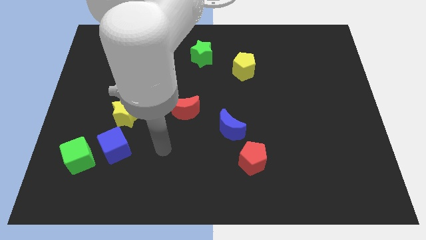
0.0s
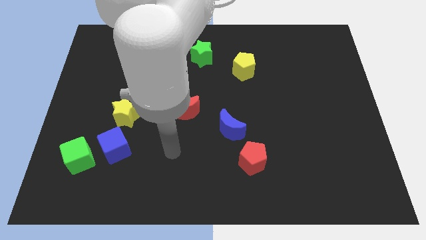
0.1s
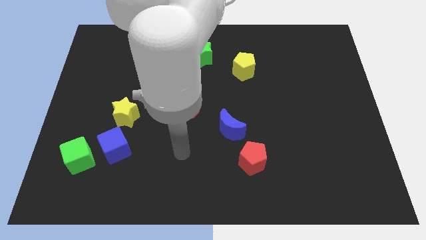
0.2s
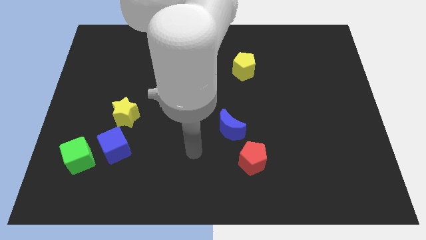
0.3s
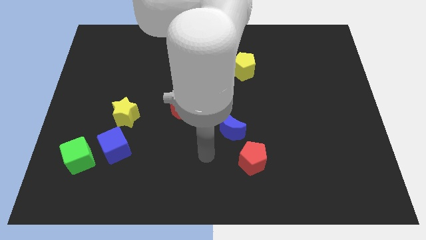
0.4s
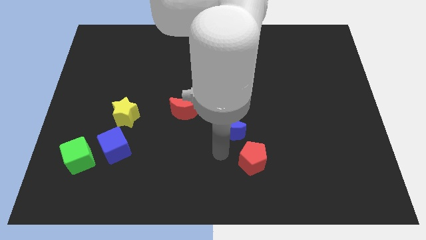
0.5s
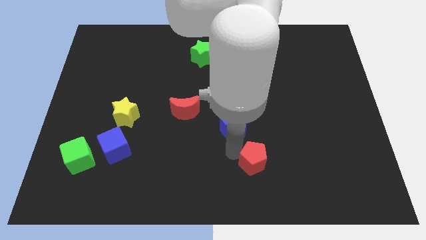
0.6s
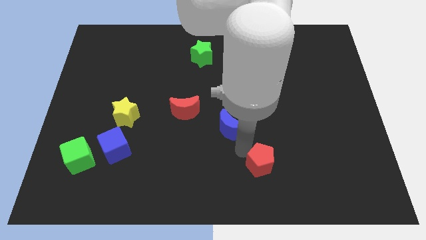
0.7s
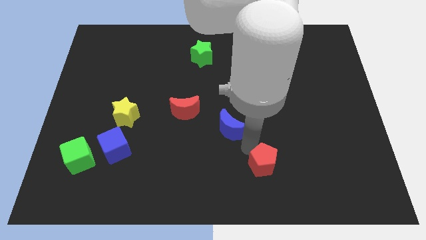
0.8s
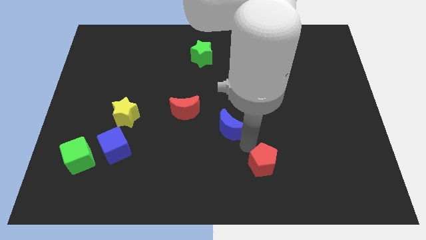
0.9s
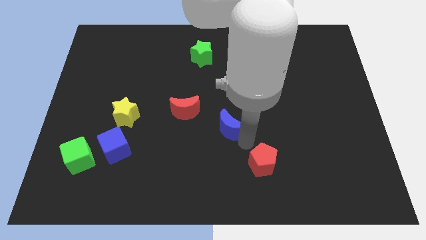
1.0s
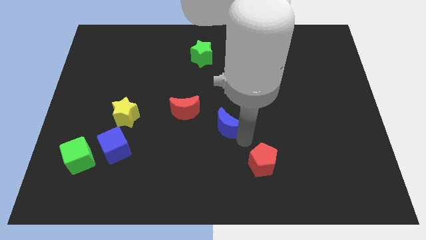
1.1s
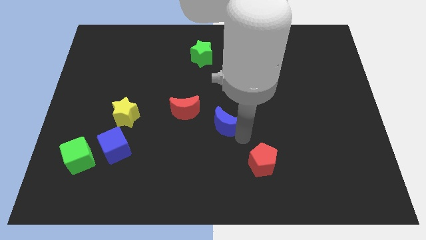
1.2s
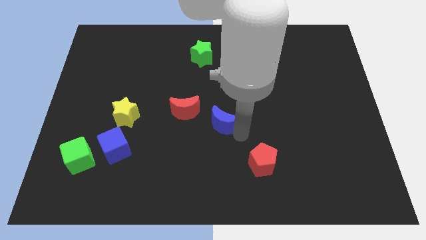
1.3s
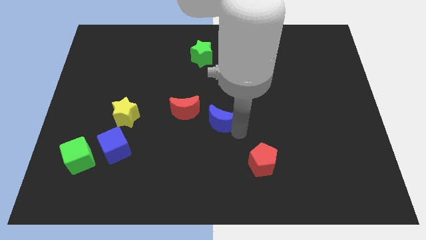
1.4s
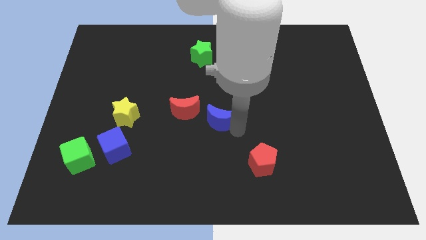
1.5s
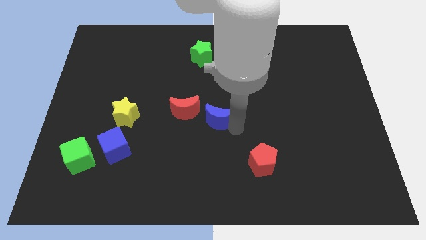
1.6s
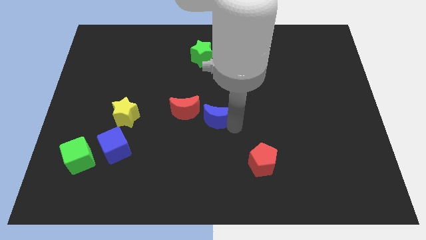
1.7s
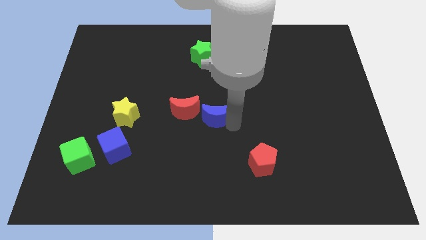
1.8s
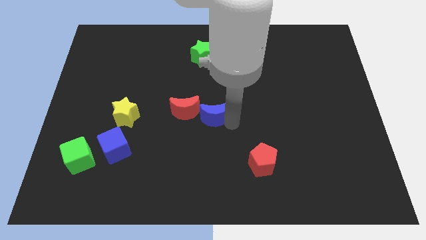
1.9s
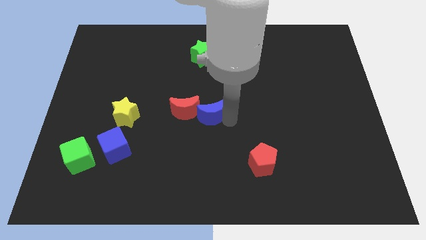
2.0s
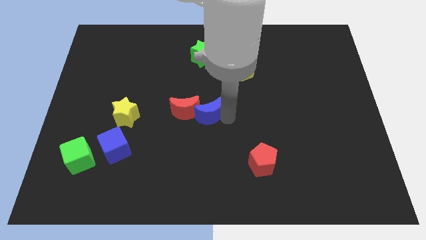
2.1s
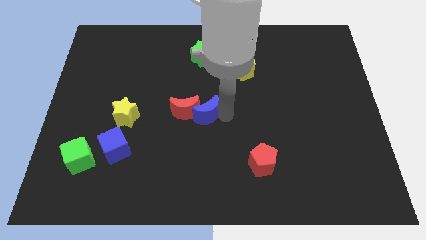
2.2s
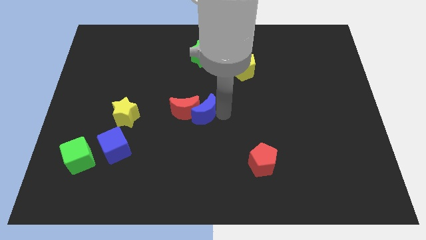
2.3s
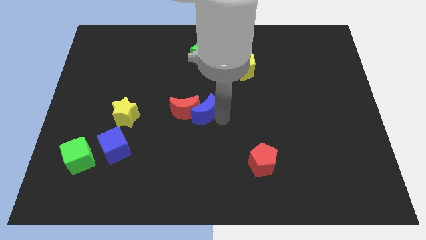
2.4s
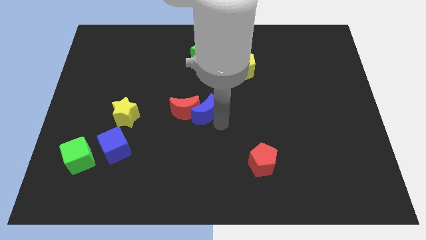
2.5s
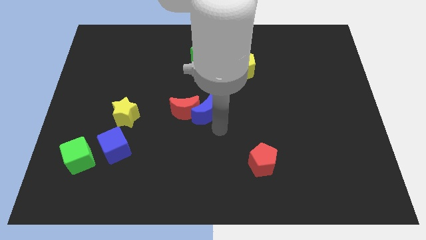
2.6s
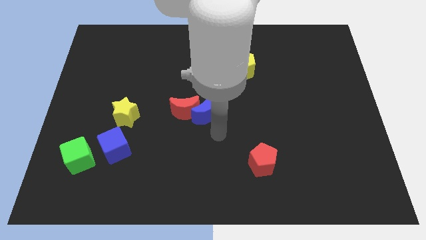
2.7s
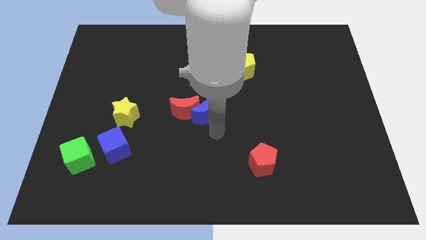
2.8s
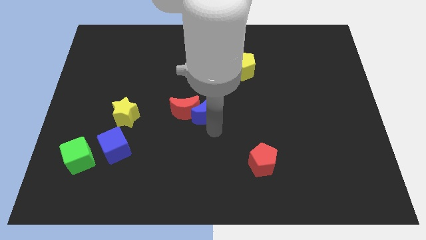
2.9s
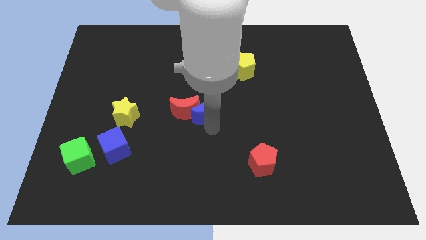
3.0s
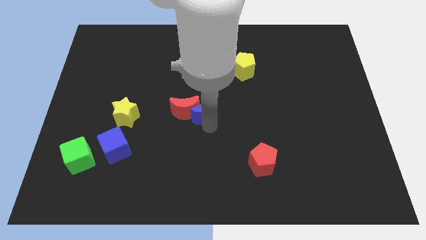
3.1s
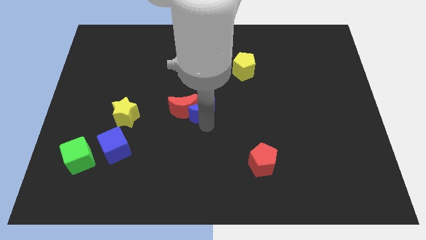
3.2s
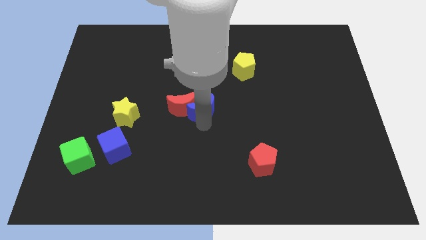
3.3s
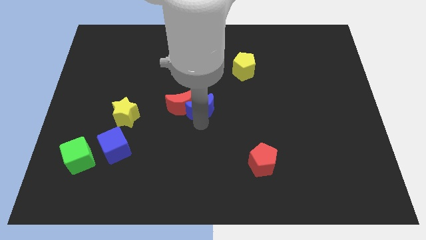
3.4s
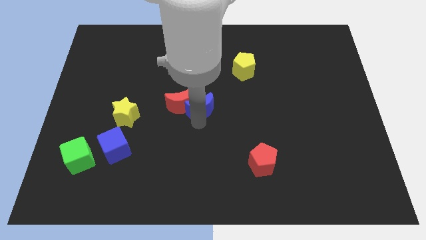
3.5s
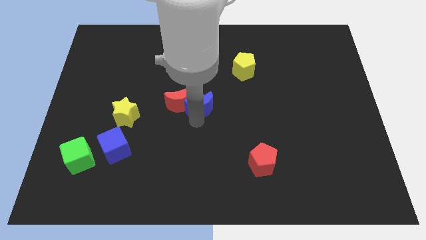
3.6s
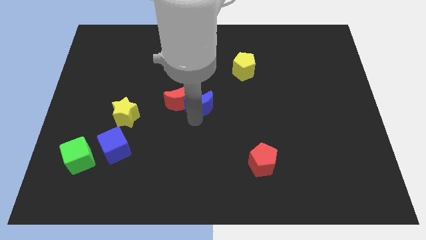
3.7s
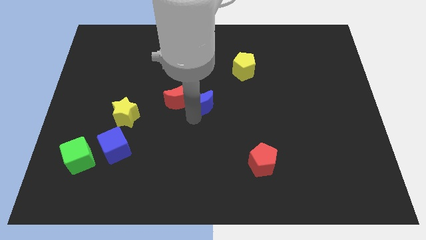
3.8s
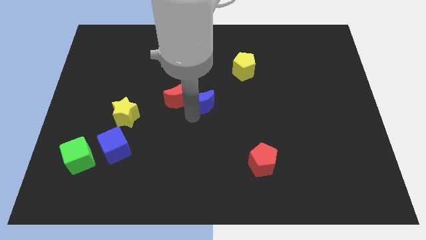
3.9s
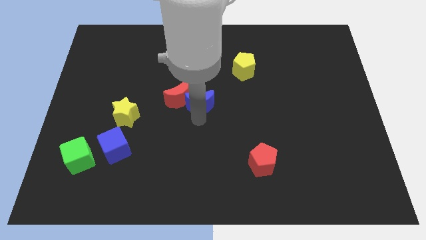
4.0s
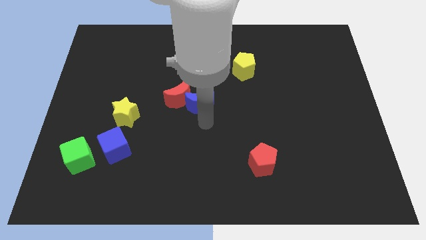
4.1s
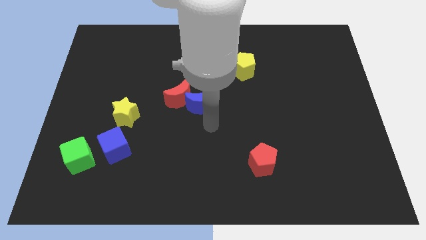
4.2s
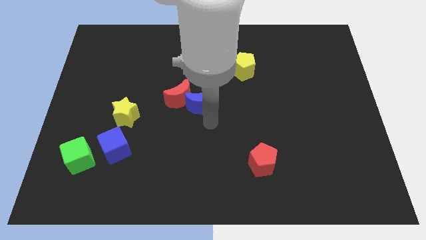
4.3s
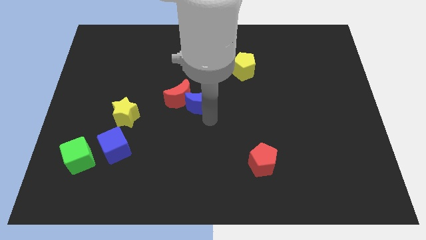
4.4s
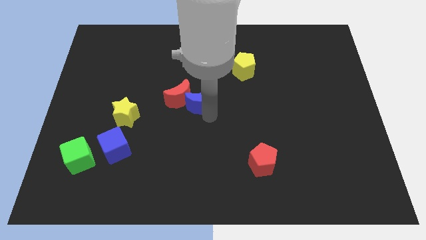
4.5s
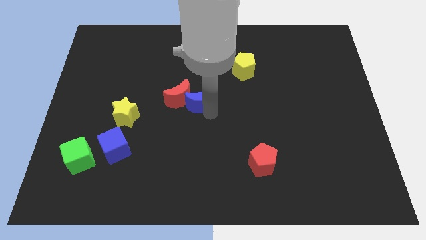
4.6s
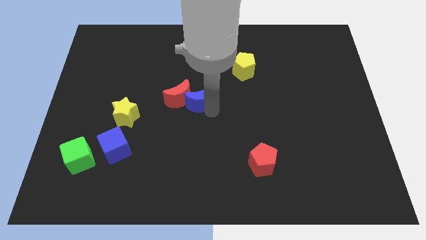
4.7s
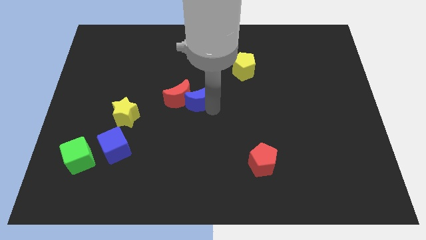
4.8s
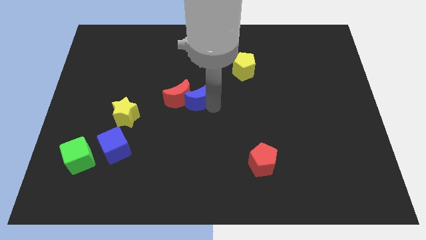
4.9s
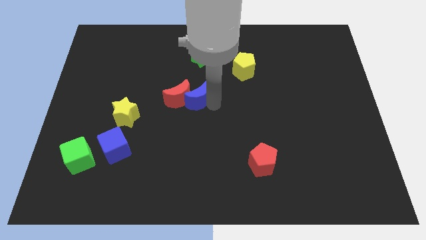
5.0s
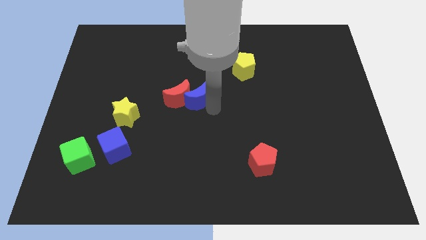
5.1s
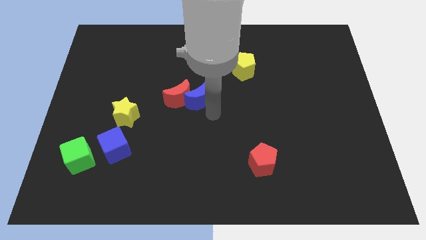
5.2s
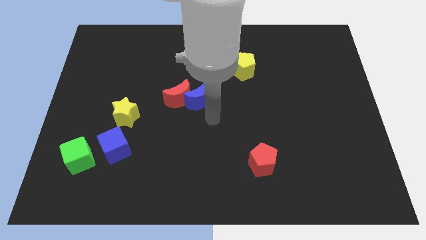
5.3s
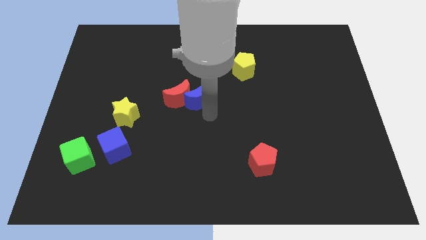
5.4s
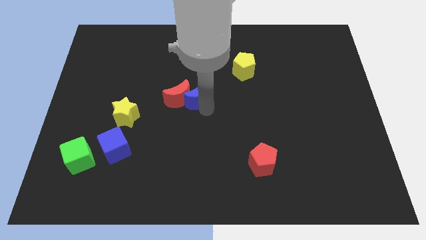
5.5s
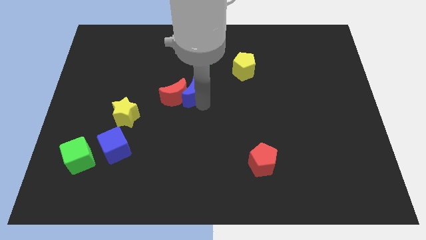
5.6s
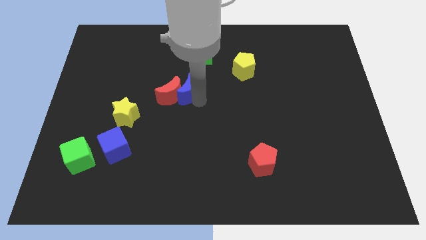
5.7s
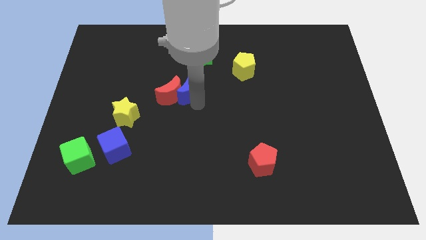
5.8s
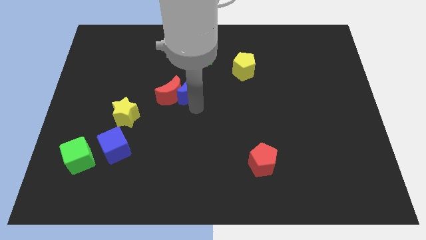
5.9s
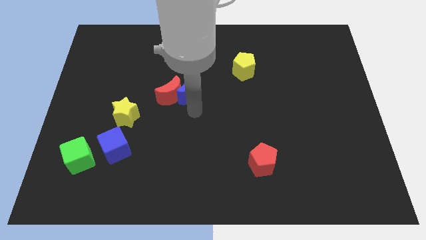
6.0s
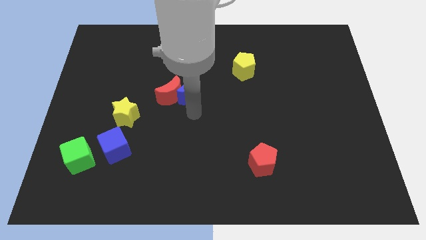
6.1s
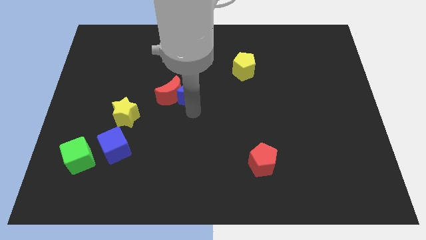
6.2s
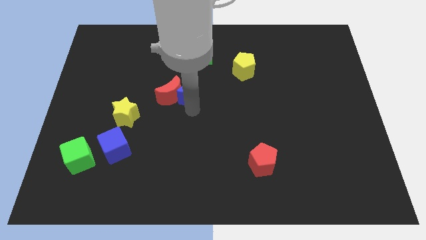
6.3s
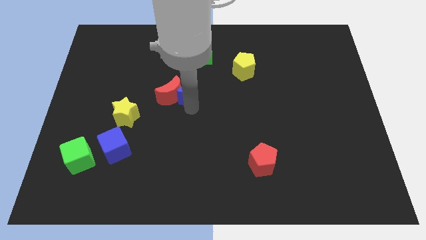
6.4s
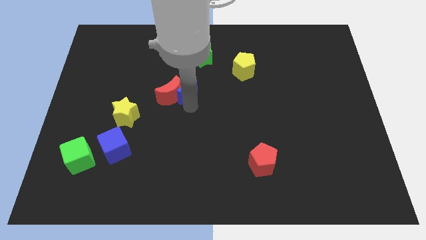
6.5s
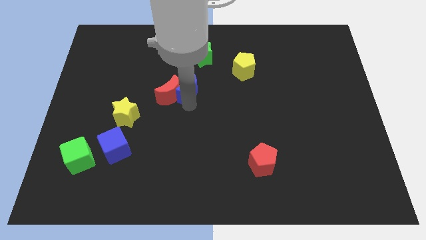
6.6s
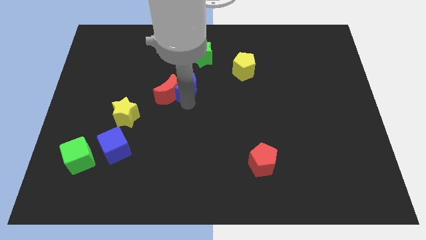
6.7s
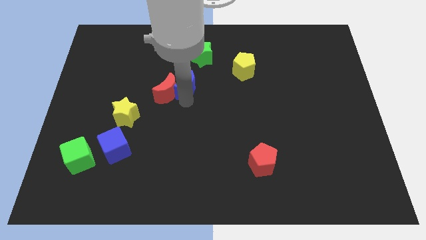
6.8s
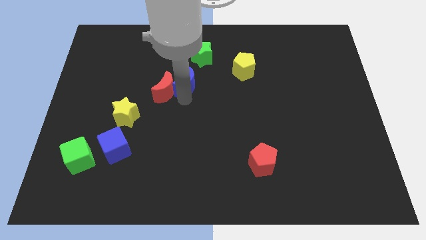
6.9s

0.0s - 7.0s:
move the blue moon diagonally down and to the left of the green star
